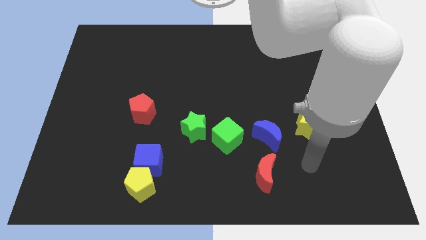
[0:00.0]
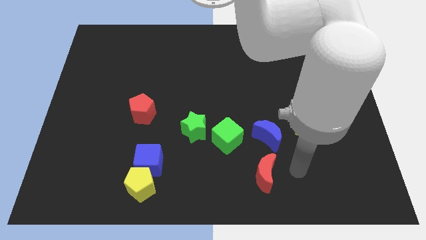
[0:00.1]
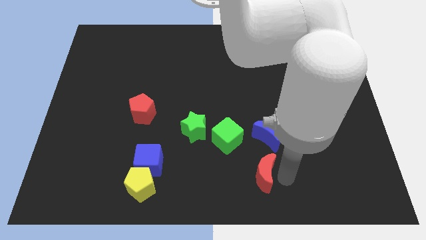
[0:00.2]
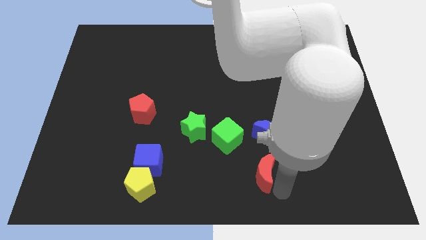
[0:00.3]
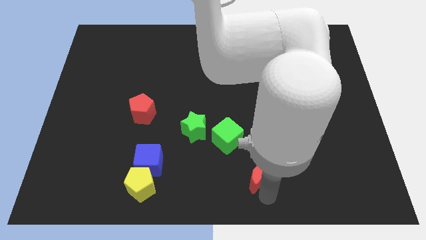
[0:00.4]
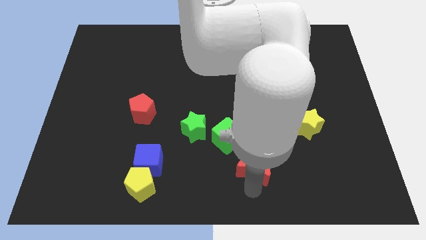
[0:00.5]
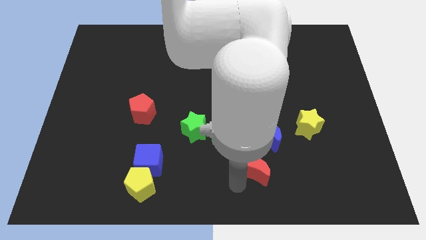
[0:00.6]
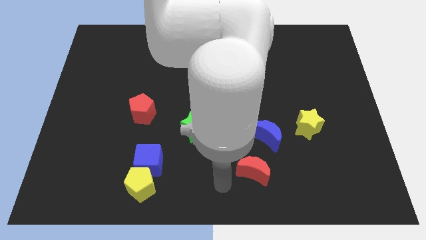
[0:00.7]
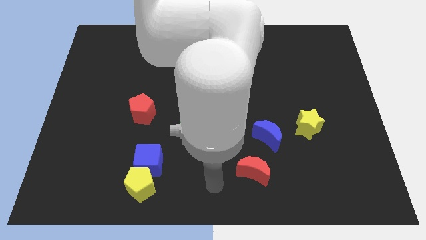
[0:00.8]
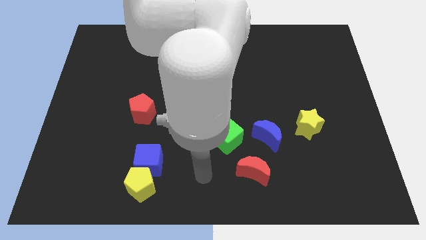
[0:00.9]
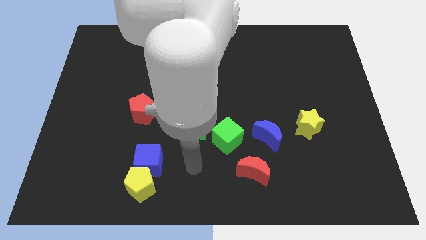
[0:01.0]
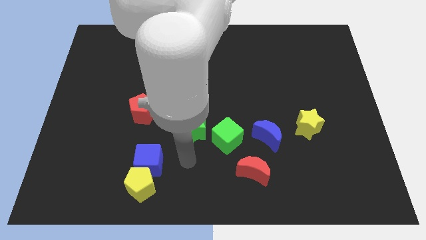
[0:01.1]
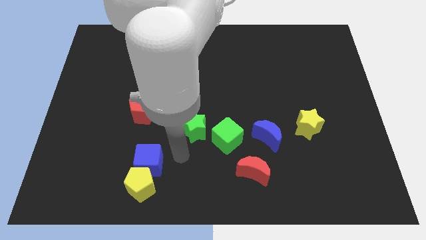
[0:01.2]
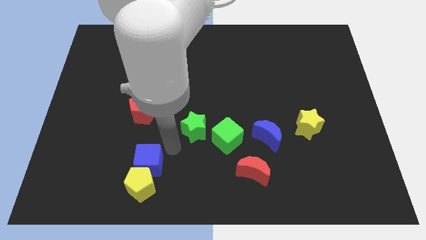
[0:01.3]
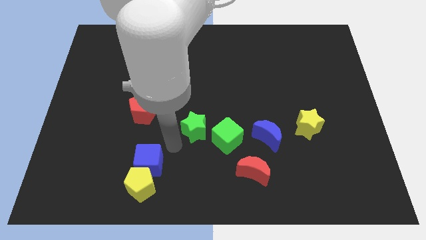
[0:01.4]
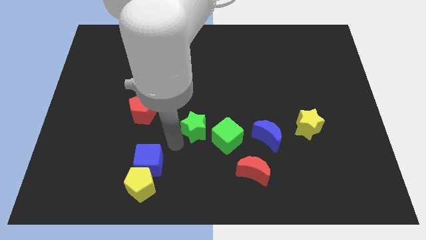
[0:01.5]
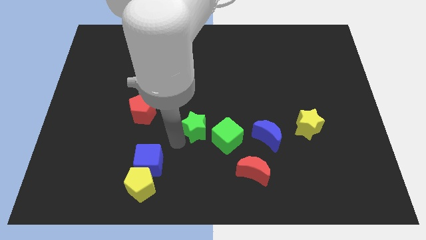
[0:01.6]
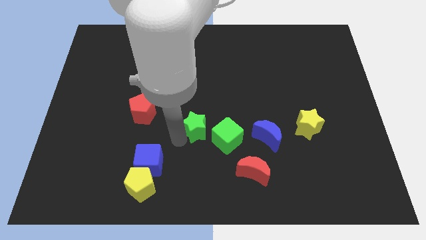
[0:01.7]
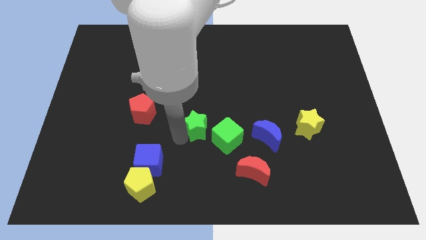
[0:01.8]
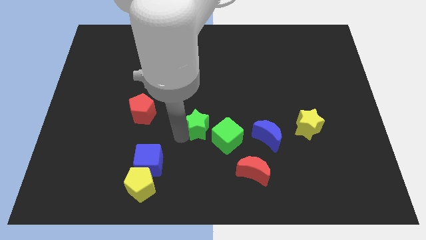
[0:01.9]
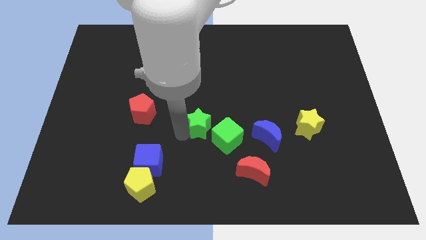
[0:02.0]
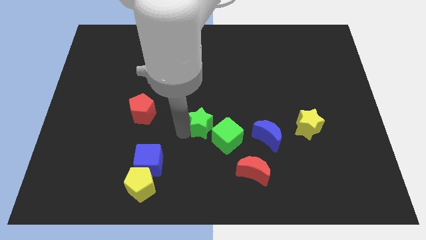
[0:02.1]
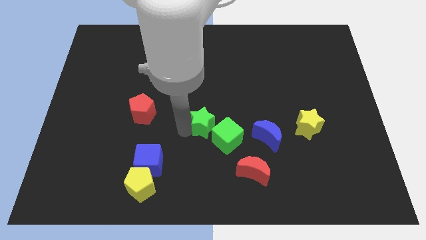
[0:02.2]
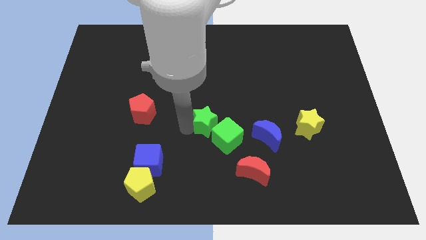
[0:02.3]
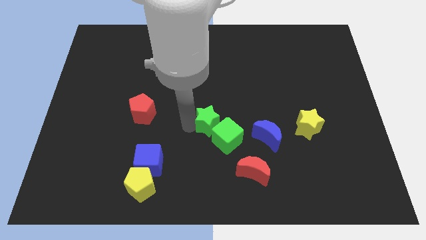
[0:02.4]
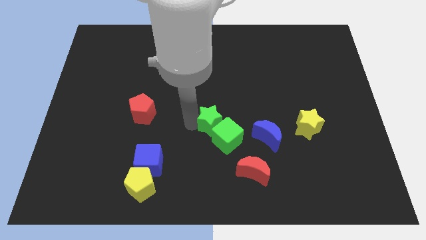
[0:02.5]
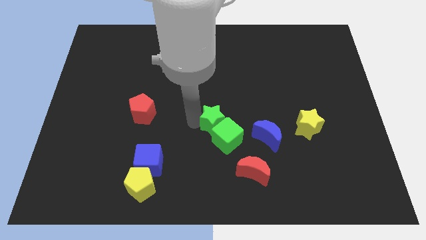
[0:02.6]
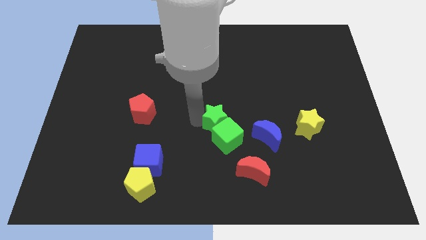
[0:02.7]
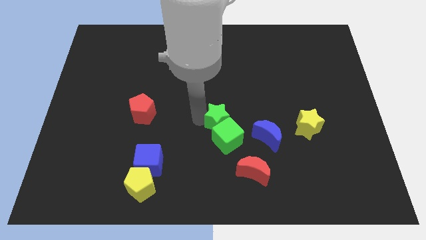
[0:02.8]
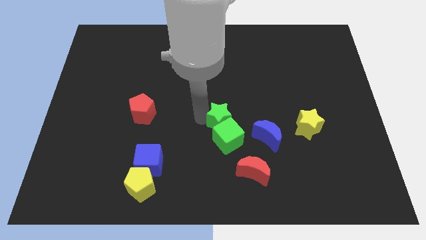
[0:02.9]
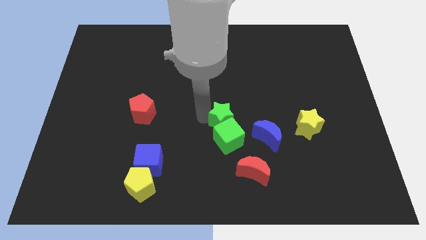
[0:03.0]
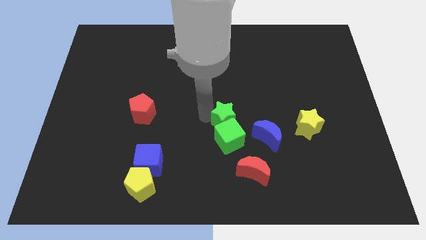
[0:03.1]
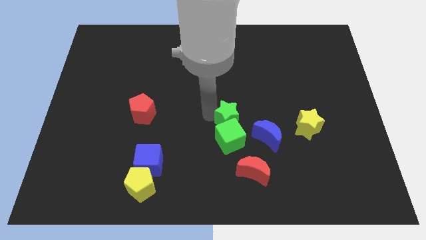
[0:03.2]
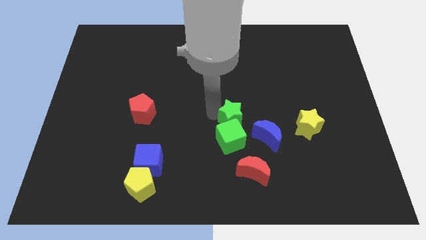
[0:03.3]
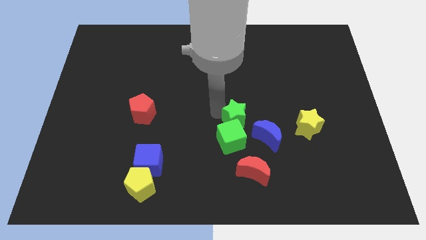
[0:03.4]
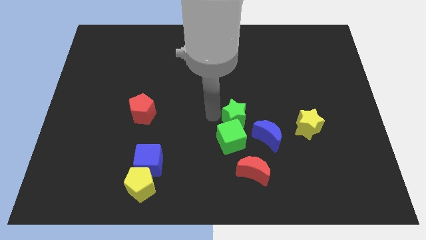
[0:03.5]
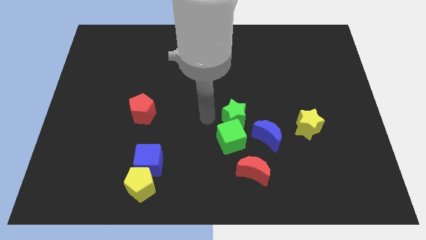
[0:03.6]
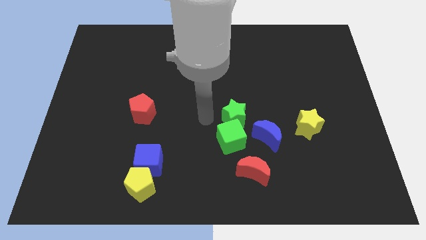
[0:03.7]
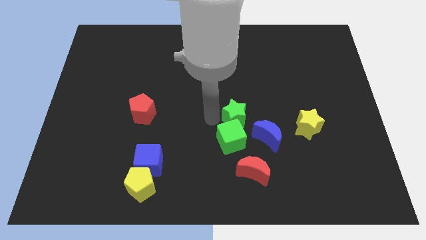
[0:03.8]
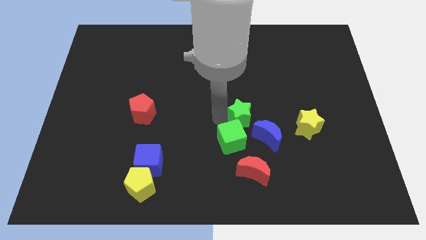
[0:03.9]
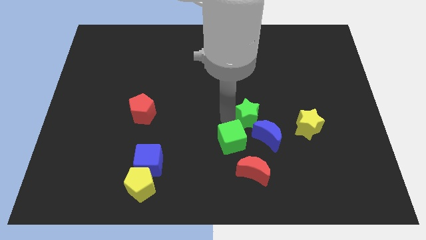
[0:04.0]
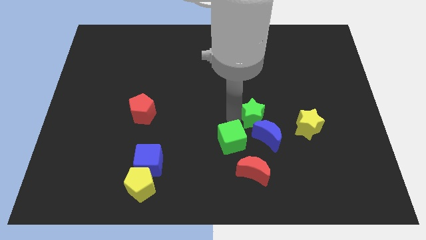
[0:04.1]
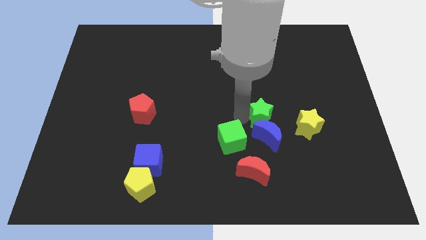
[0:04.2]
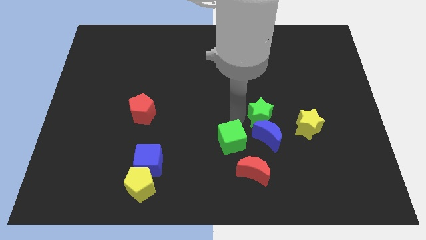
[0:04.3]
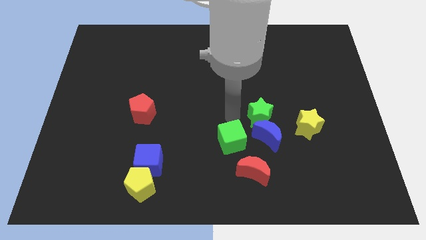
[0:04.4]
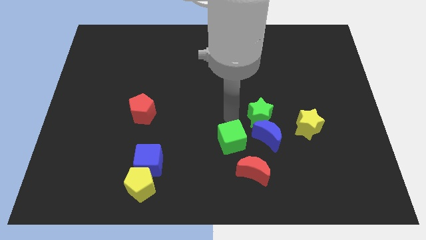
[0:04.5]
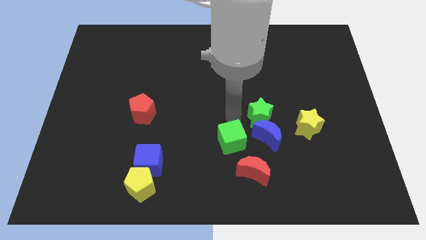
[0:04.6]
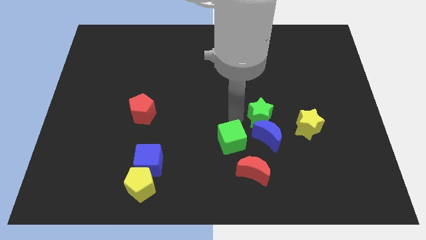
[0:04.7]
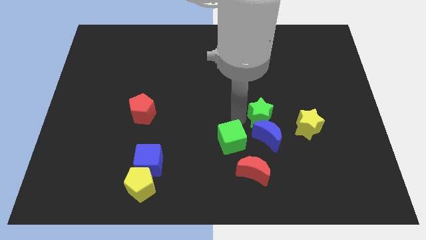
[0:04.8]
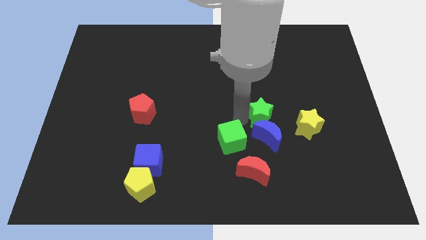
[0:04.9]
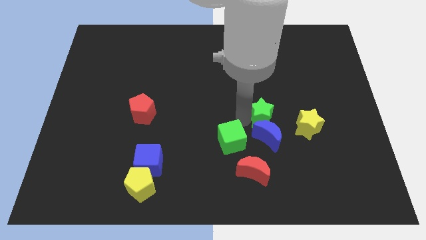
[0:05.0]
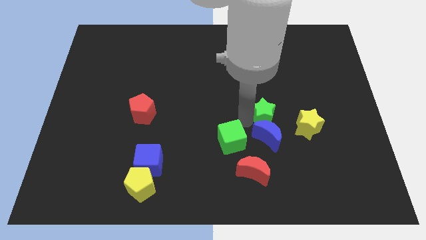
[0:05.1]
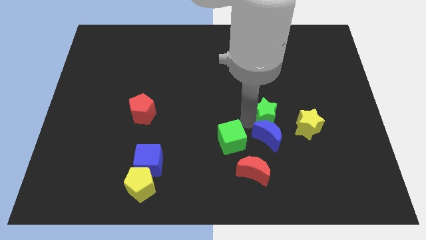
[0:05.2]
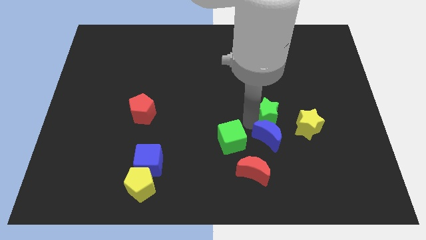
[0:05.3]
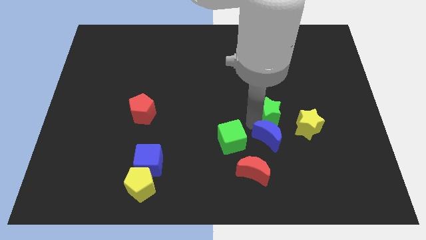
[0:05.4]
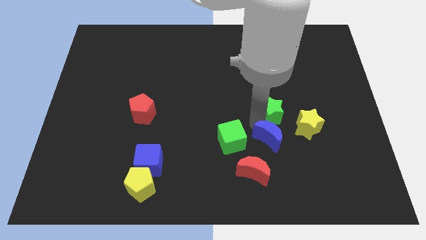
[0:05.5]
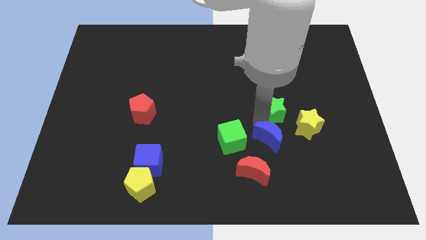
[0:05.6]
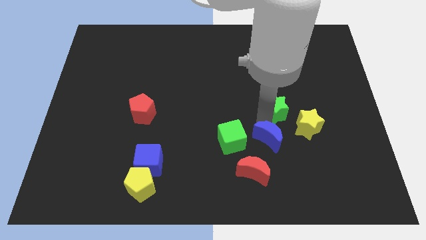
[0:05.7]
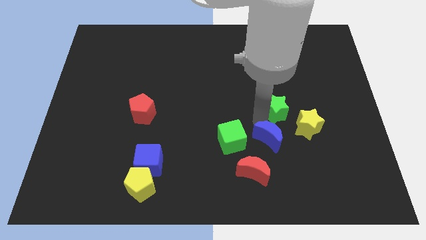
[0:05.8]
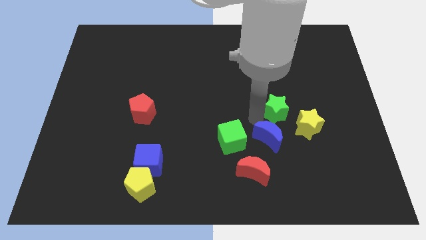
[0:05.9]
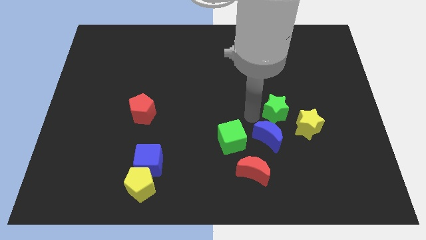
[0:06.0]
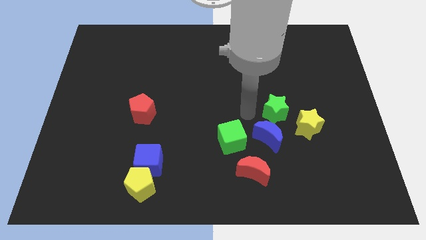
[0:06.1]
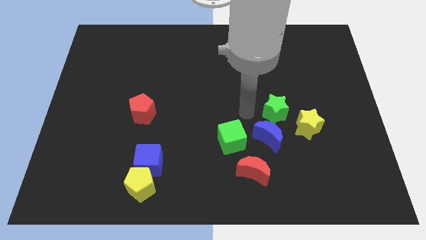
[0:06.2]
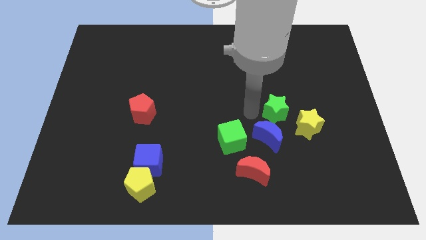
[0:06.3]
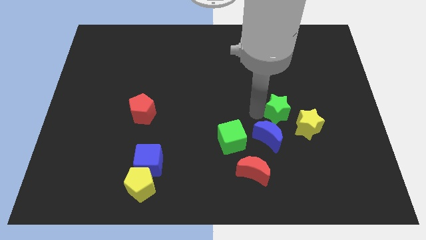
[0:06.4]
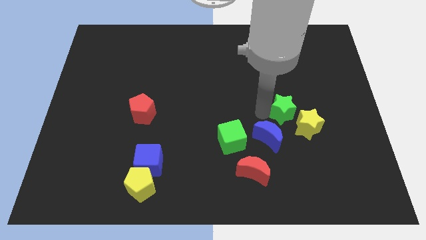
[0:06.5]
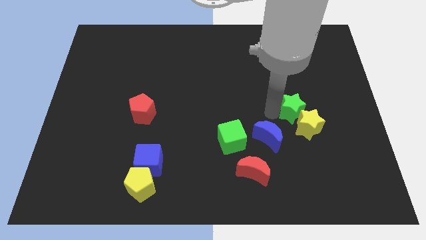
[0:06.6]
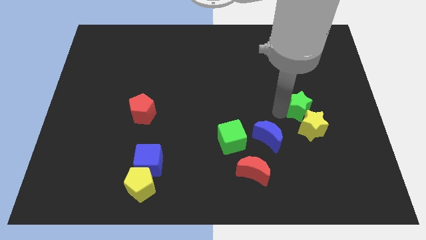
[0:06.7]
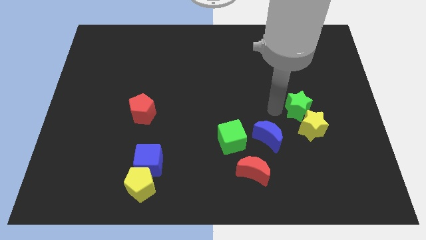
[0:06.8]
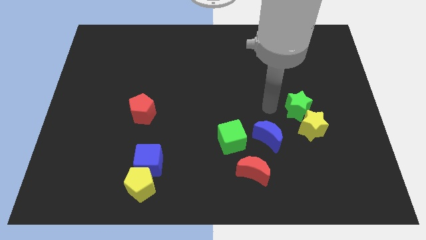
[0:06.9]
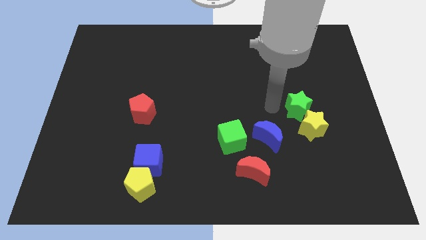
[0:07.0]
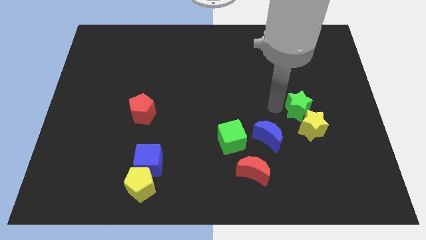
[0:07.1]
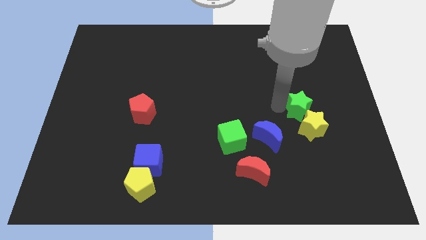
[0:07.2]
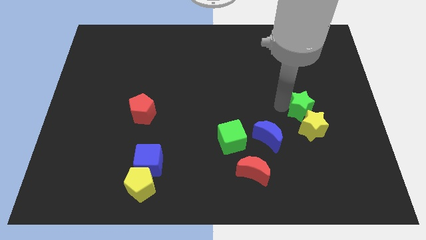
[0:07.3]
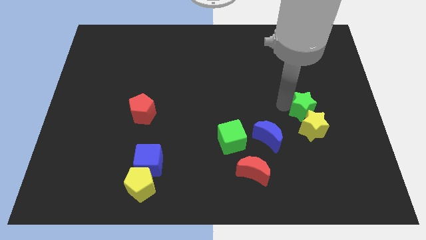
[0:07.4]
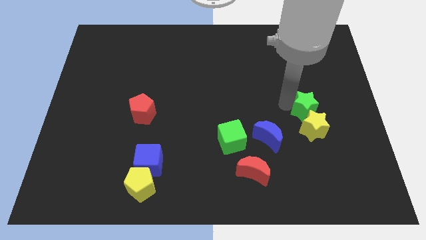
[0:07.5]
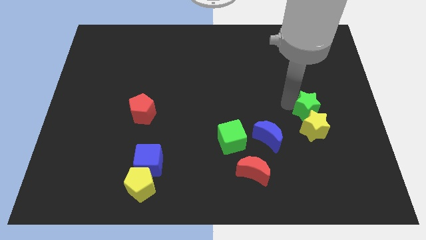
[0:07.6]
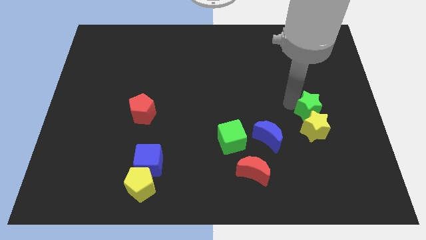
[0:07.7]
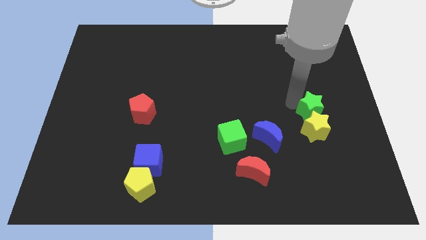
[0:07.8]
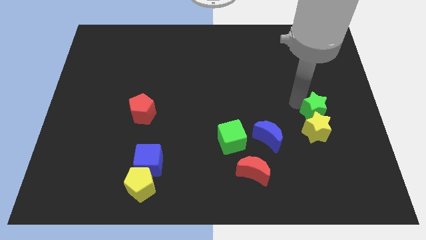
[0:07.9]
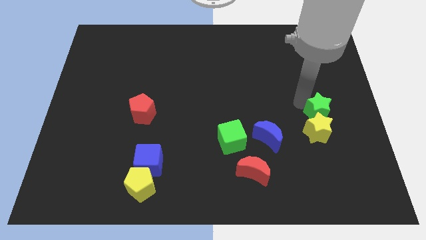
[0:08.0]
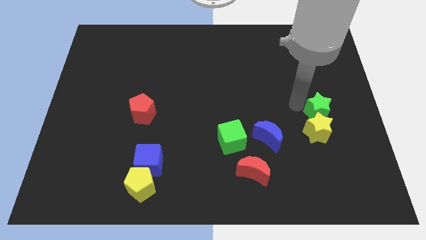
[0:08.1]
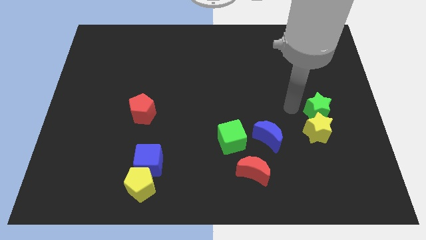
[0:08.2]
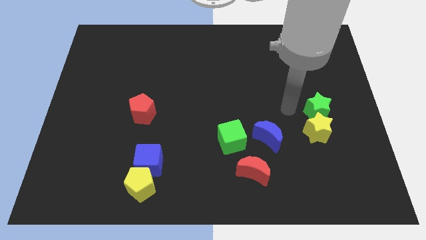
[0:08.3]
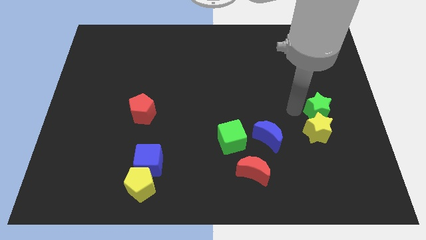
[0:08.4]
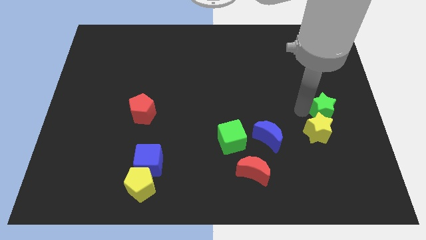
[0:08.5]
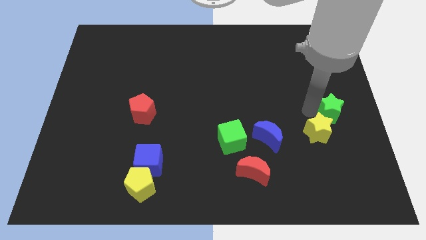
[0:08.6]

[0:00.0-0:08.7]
slide the green star to the right side
